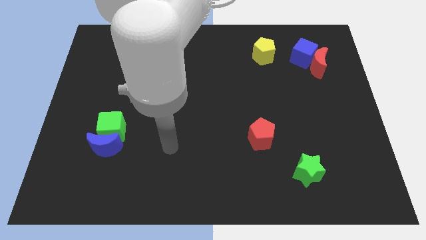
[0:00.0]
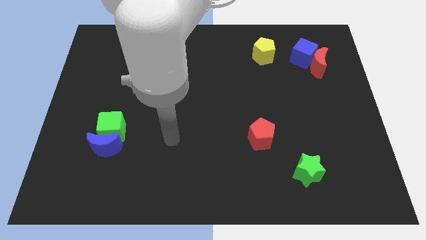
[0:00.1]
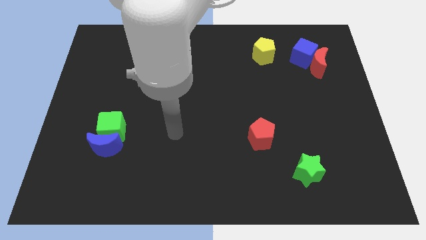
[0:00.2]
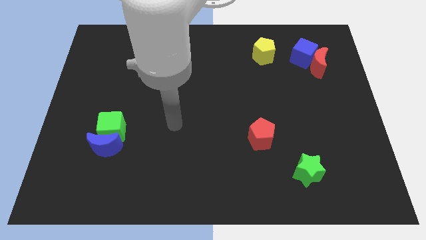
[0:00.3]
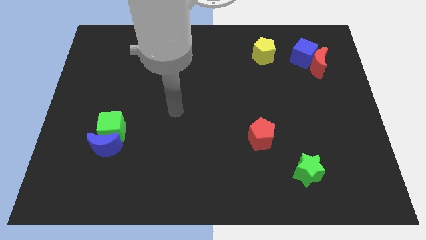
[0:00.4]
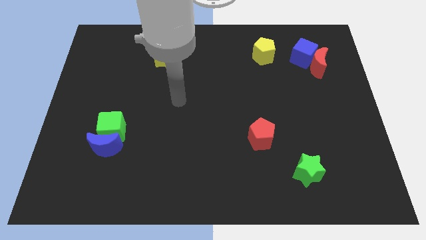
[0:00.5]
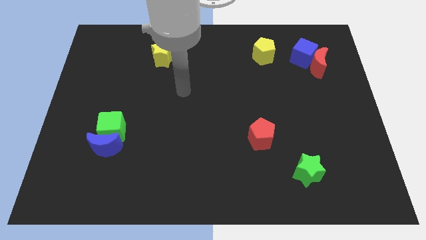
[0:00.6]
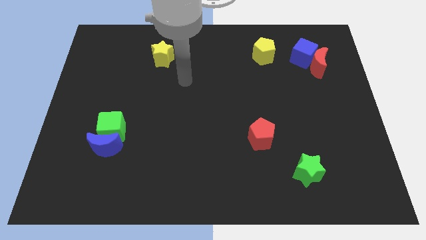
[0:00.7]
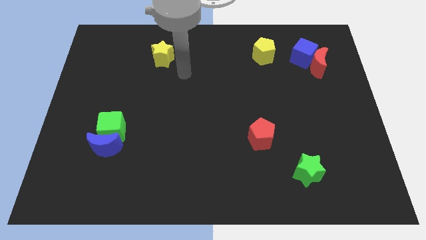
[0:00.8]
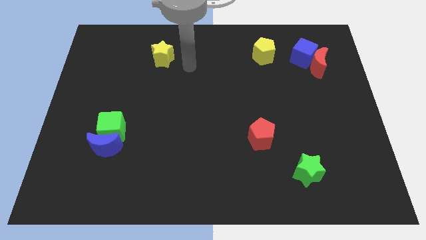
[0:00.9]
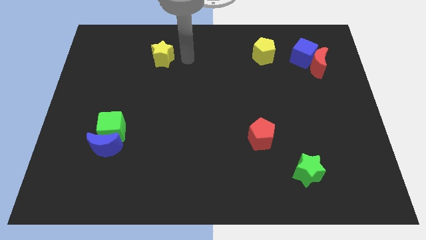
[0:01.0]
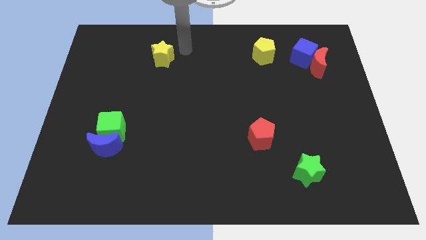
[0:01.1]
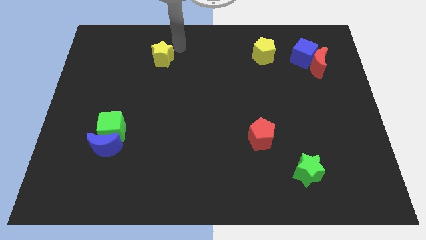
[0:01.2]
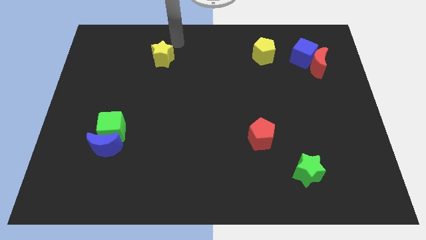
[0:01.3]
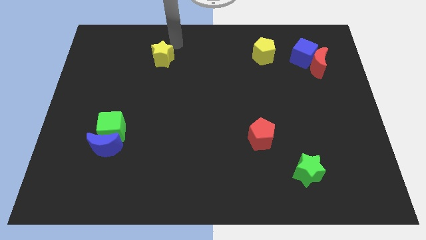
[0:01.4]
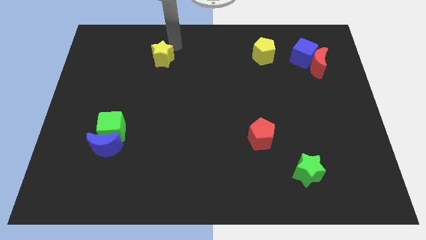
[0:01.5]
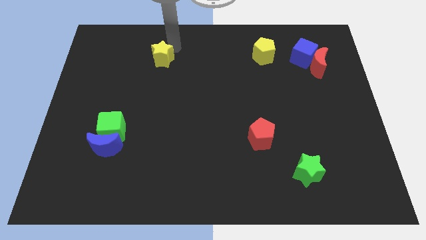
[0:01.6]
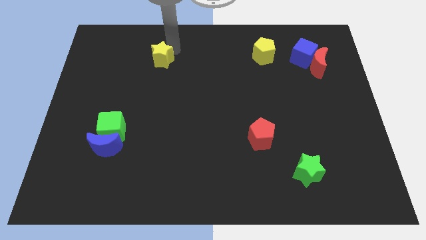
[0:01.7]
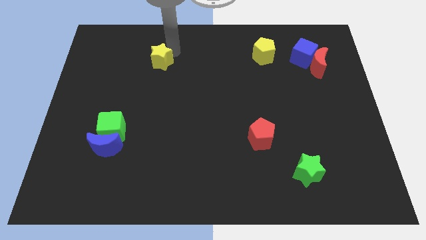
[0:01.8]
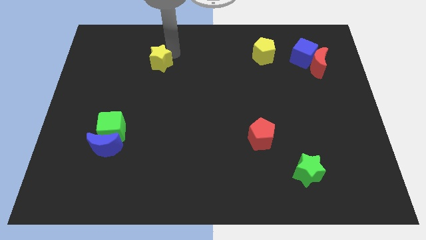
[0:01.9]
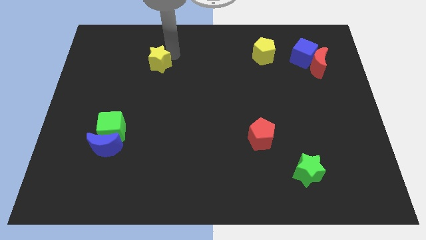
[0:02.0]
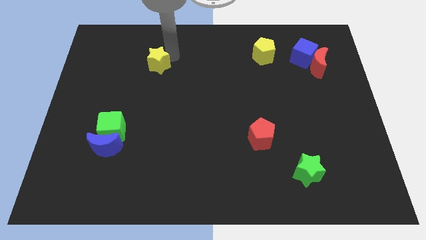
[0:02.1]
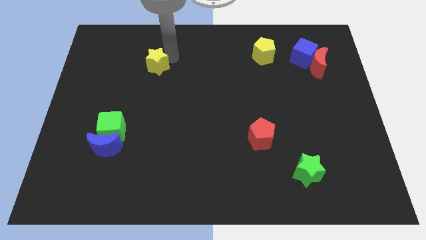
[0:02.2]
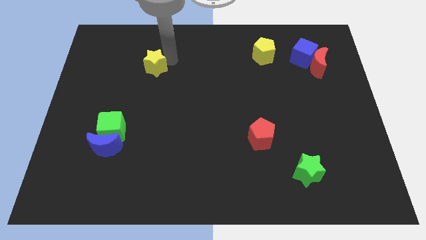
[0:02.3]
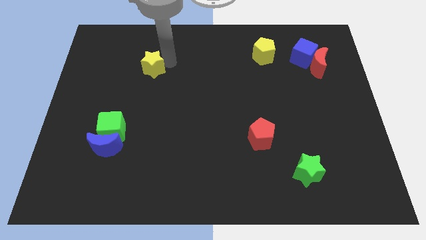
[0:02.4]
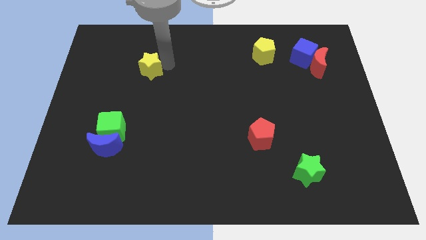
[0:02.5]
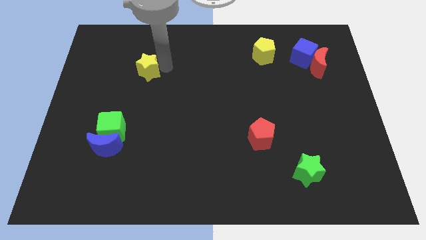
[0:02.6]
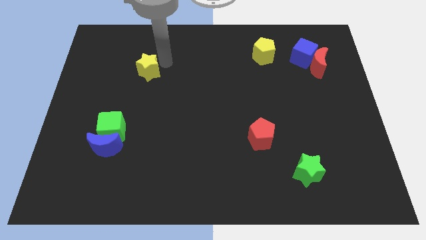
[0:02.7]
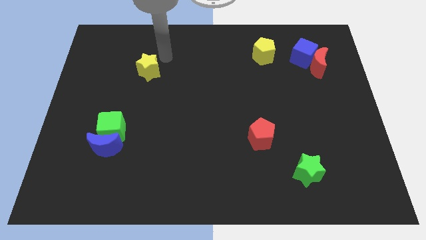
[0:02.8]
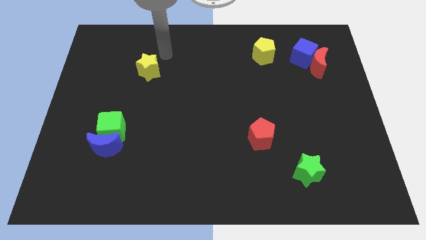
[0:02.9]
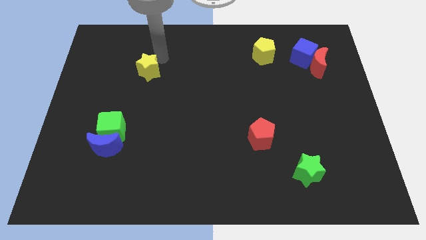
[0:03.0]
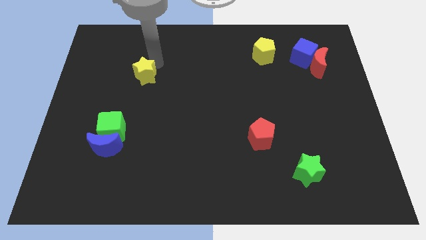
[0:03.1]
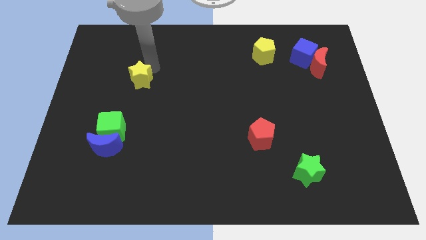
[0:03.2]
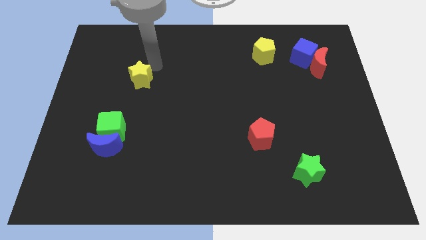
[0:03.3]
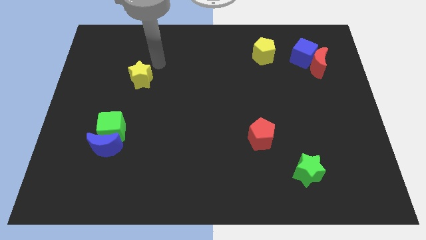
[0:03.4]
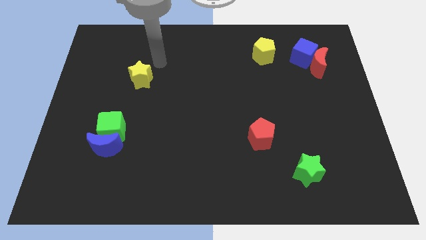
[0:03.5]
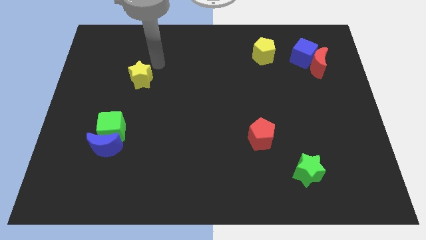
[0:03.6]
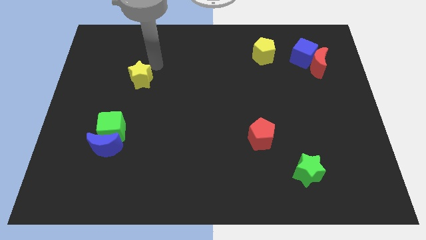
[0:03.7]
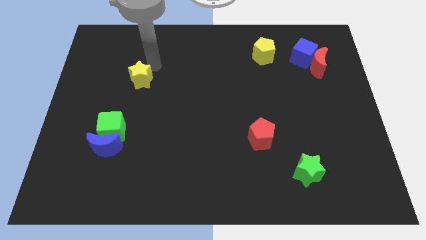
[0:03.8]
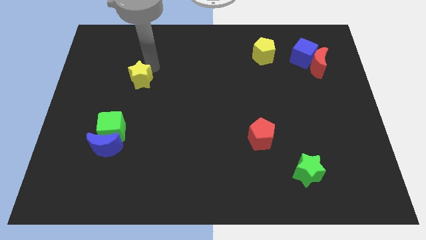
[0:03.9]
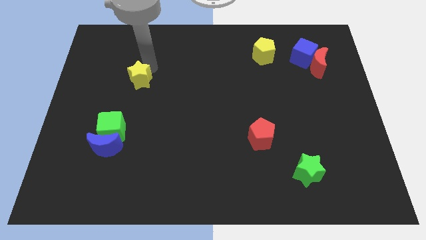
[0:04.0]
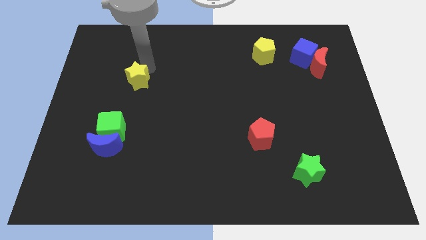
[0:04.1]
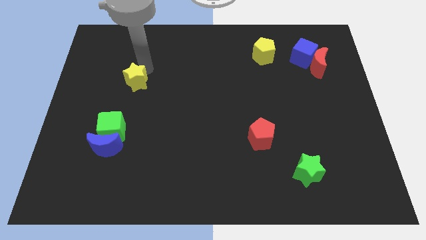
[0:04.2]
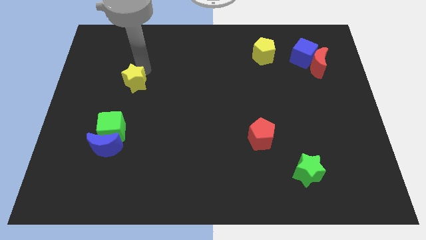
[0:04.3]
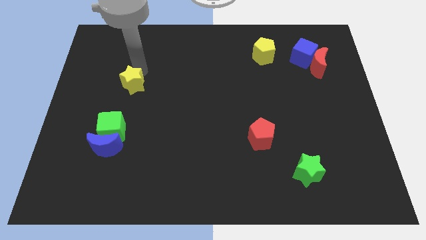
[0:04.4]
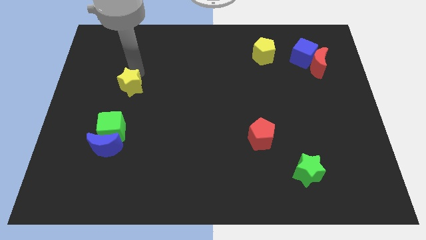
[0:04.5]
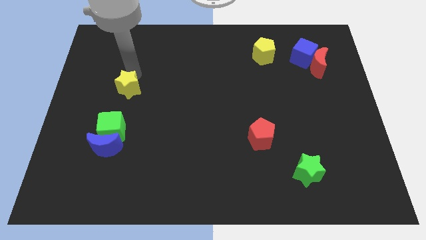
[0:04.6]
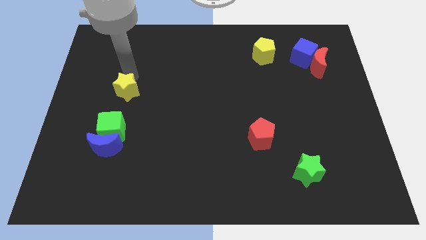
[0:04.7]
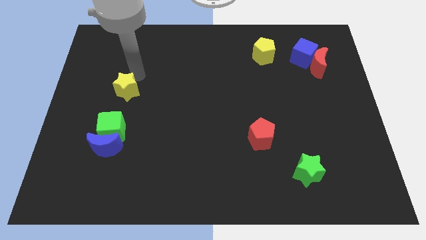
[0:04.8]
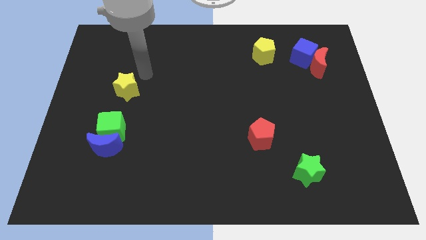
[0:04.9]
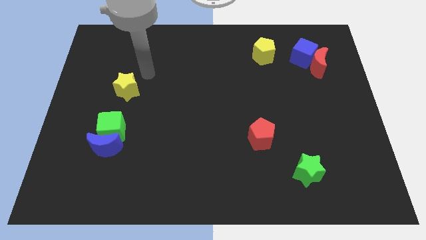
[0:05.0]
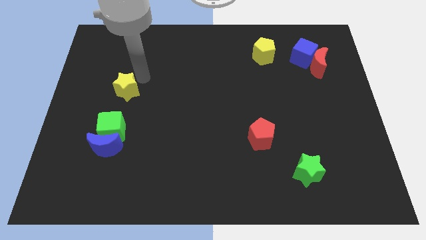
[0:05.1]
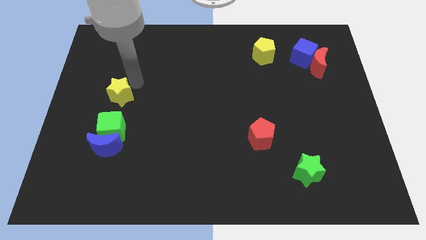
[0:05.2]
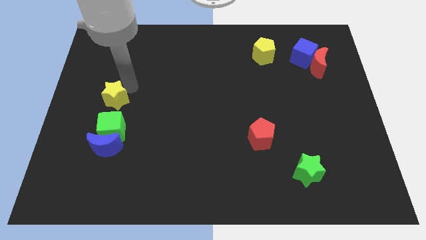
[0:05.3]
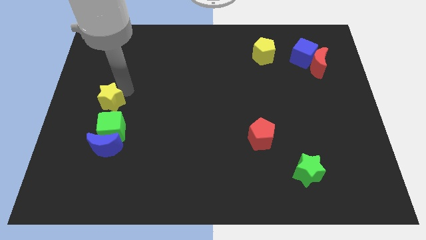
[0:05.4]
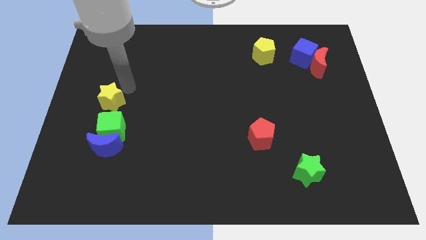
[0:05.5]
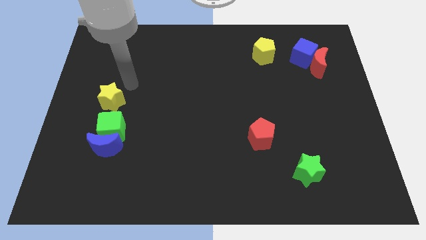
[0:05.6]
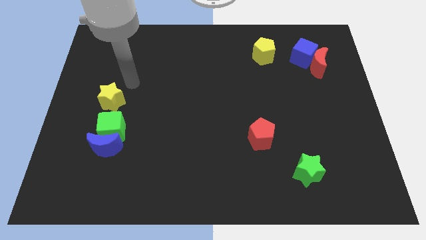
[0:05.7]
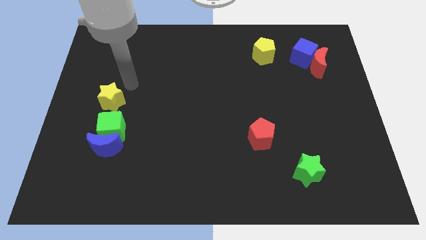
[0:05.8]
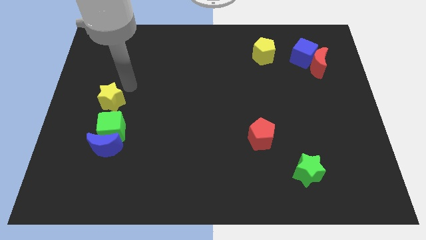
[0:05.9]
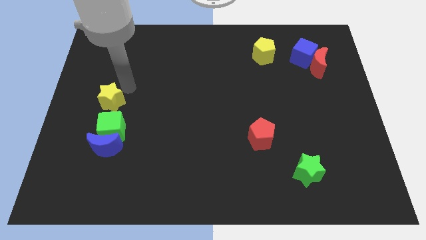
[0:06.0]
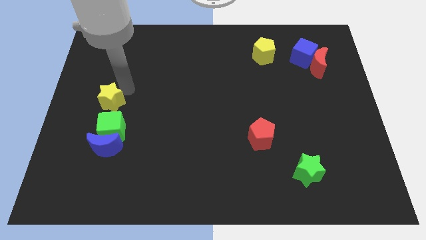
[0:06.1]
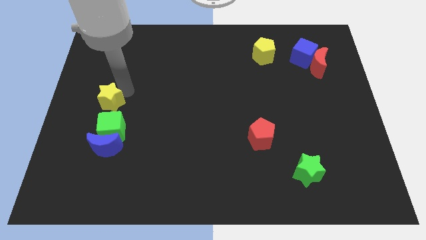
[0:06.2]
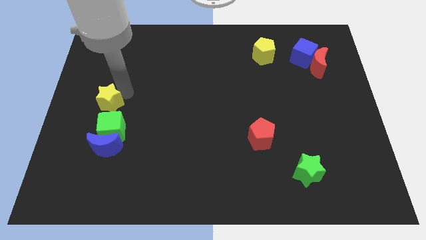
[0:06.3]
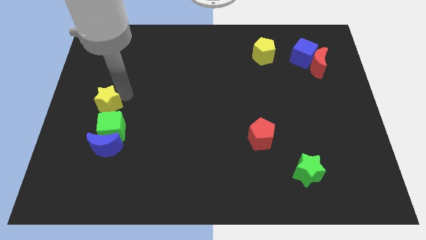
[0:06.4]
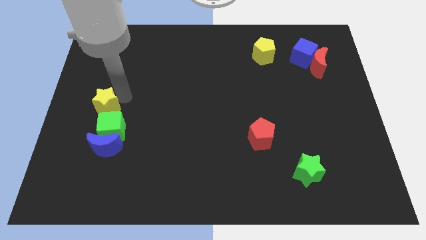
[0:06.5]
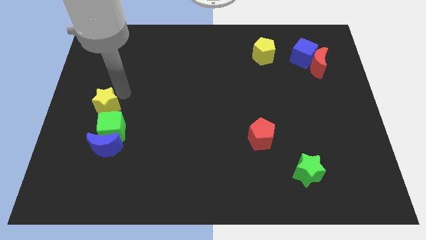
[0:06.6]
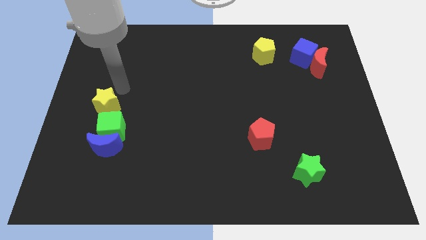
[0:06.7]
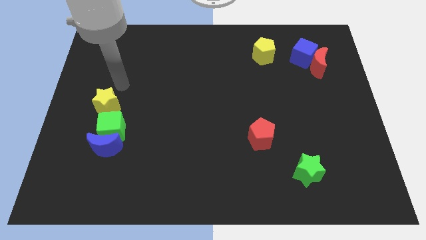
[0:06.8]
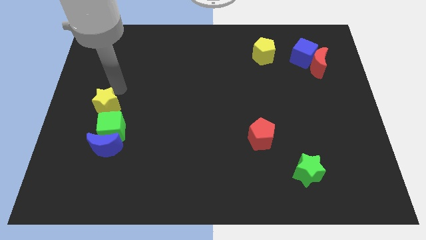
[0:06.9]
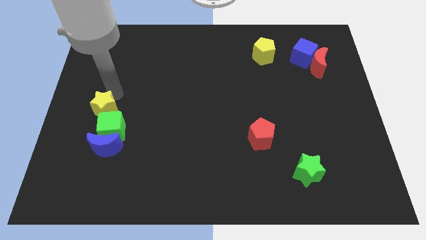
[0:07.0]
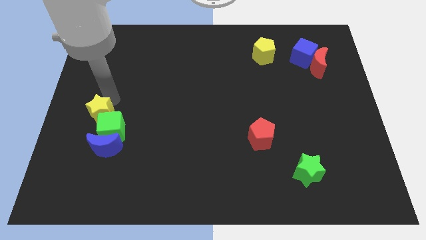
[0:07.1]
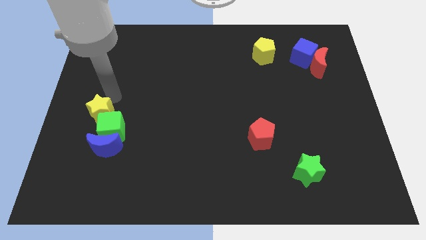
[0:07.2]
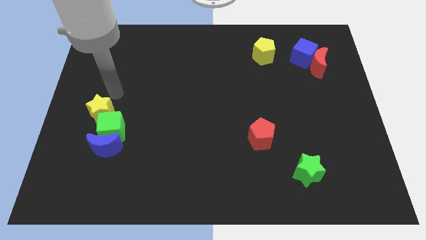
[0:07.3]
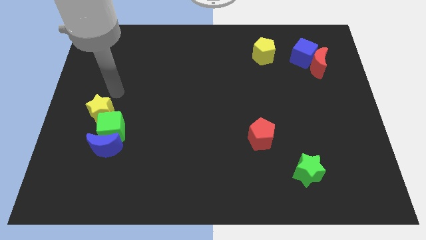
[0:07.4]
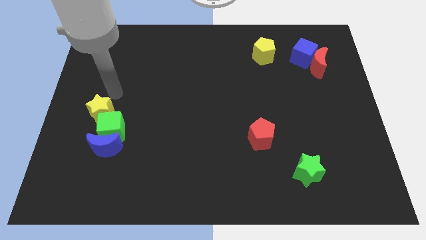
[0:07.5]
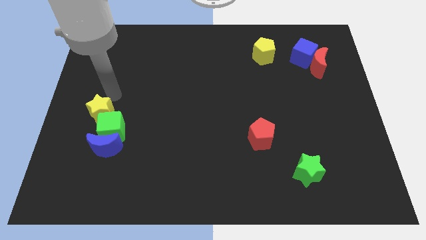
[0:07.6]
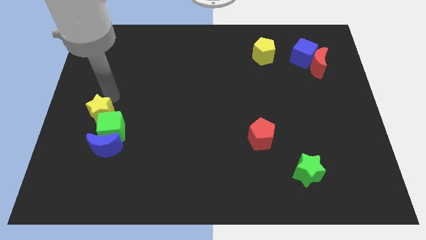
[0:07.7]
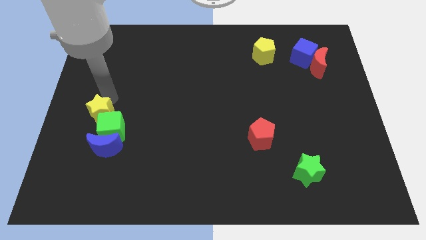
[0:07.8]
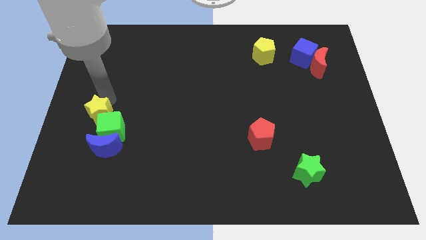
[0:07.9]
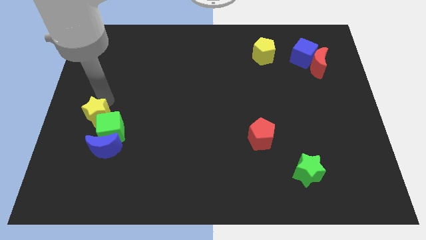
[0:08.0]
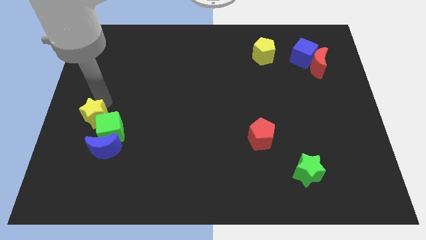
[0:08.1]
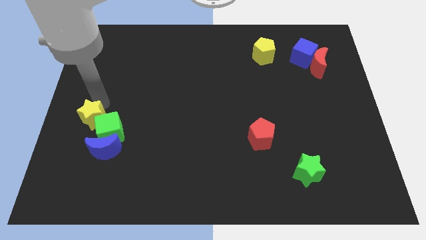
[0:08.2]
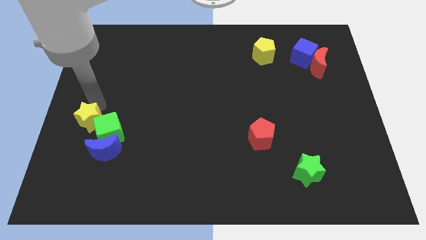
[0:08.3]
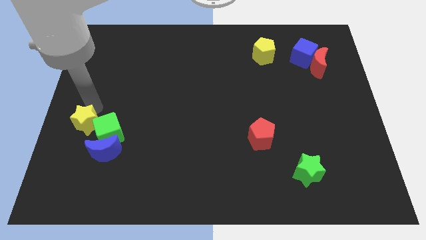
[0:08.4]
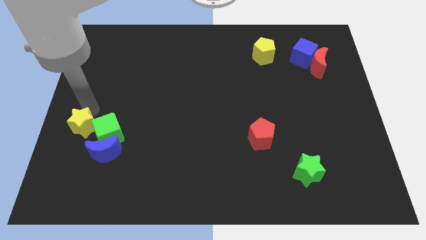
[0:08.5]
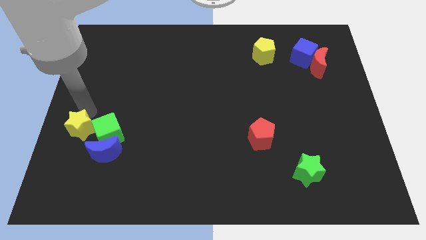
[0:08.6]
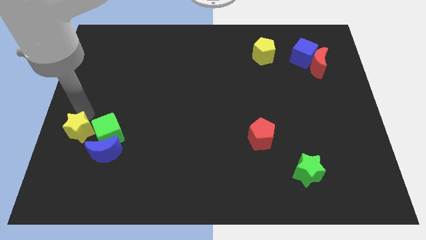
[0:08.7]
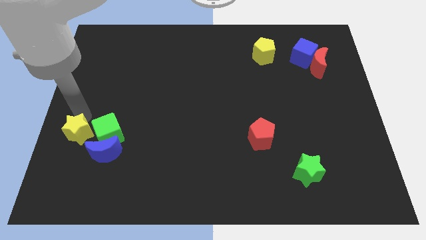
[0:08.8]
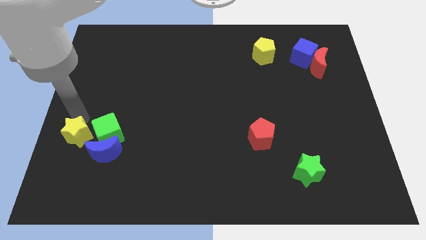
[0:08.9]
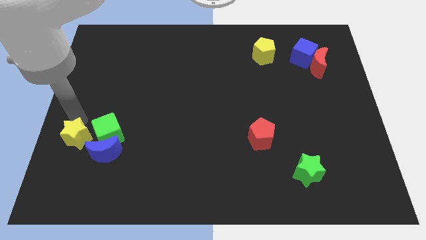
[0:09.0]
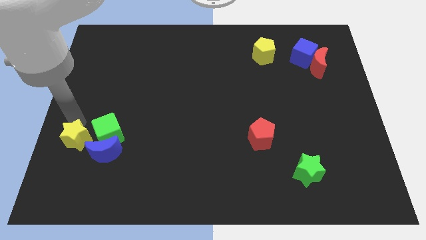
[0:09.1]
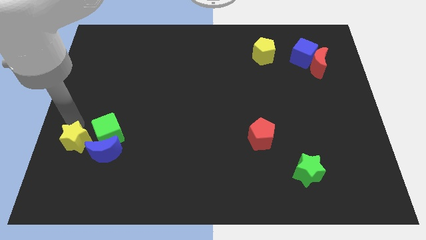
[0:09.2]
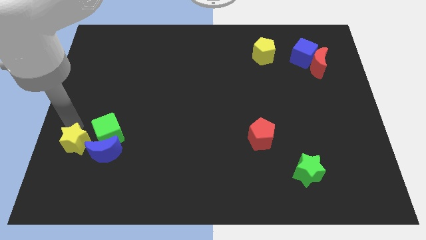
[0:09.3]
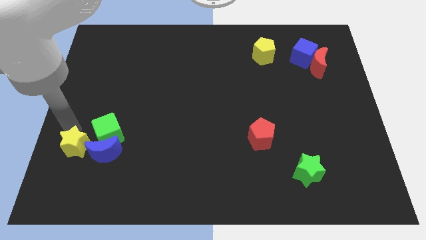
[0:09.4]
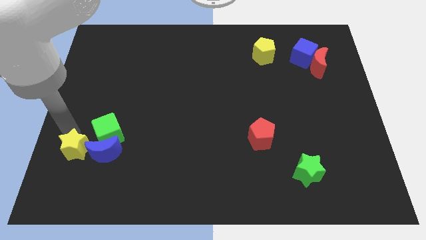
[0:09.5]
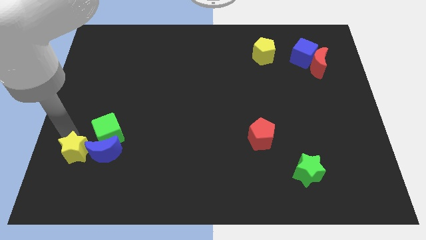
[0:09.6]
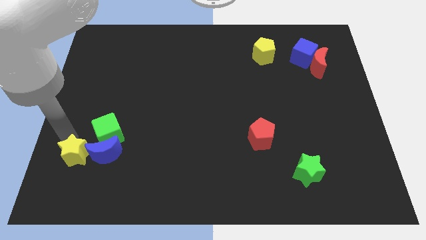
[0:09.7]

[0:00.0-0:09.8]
push the yellow star to the bottom left side of the blue moon
